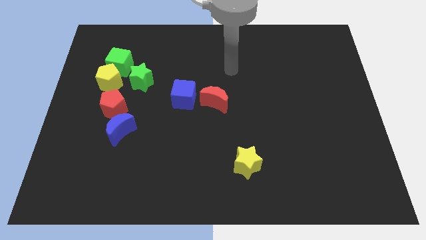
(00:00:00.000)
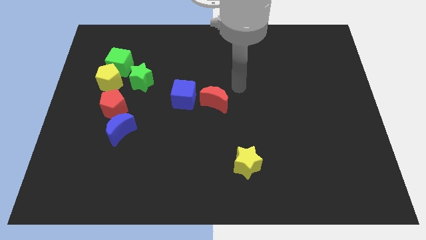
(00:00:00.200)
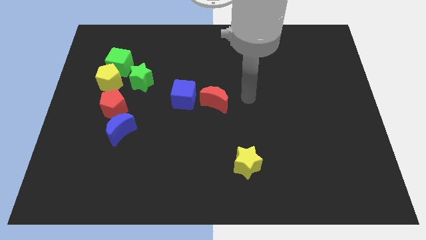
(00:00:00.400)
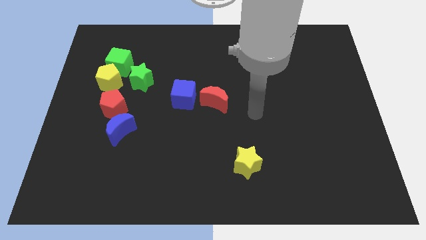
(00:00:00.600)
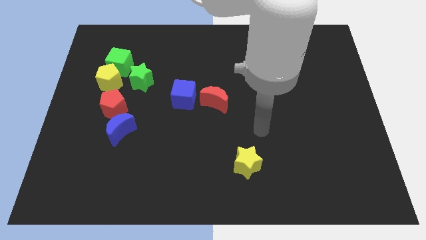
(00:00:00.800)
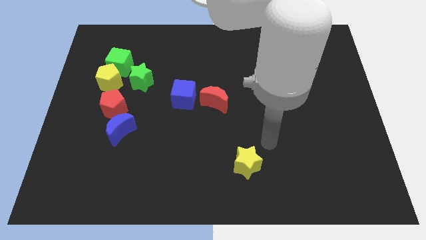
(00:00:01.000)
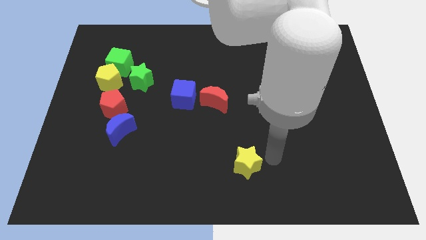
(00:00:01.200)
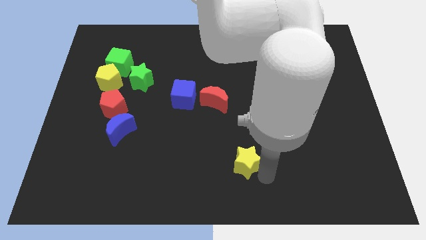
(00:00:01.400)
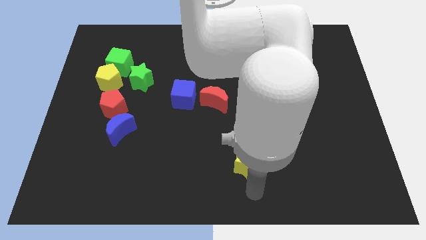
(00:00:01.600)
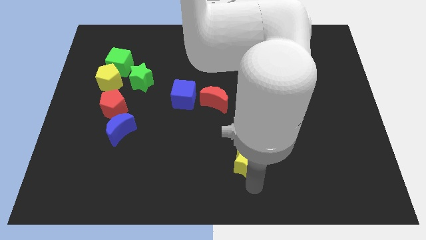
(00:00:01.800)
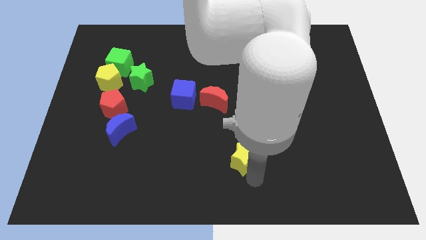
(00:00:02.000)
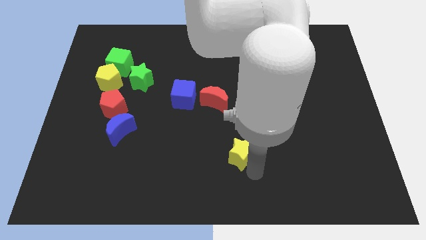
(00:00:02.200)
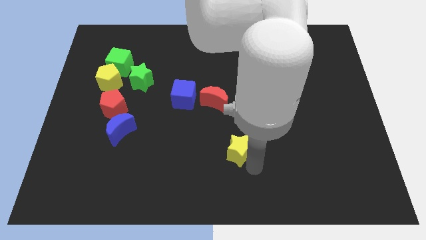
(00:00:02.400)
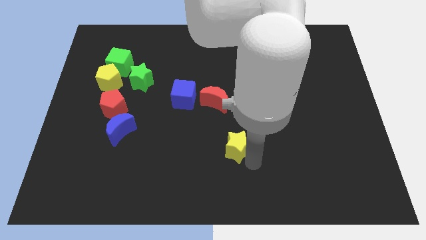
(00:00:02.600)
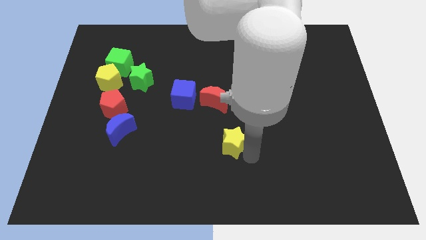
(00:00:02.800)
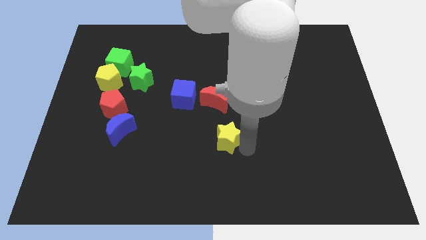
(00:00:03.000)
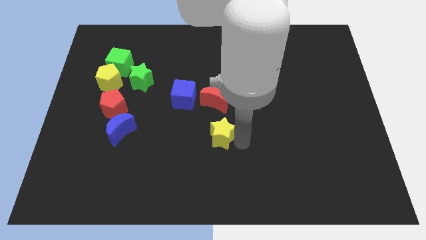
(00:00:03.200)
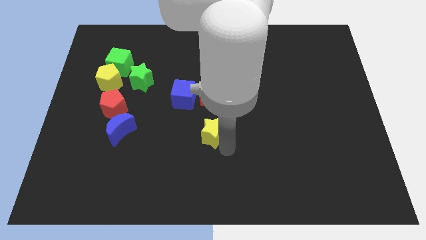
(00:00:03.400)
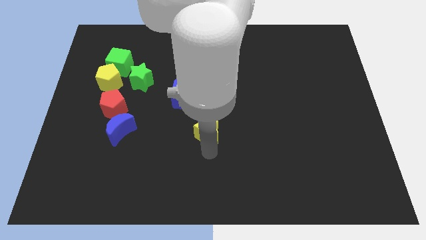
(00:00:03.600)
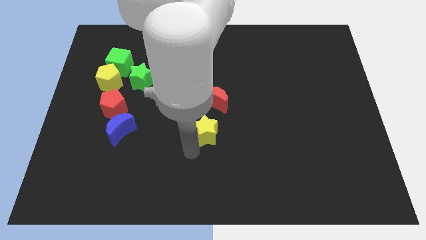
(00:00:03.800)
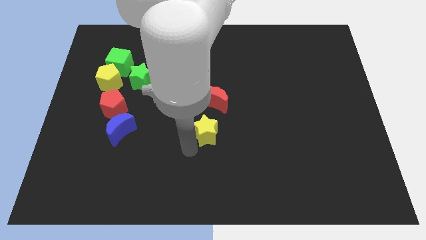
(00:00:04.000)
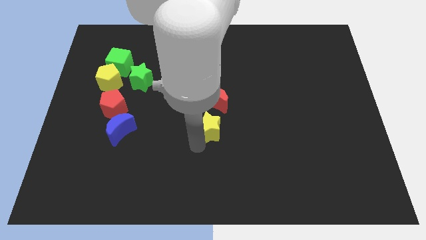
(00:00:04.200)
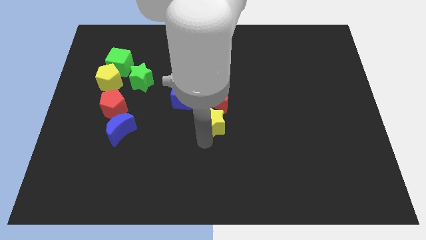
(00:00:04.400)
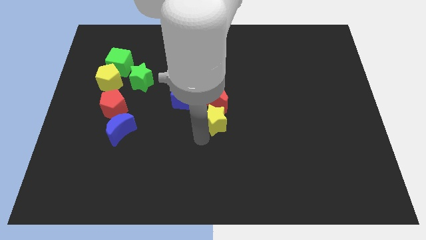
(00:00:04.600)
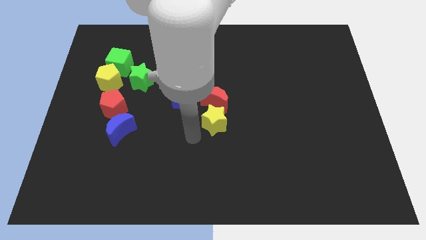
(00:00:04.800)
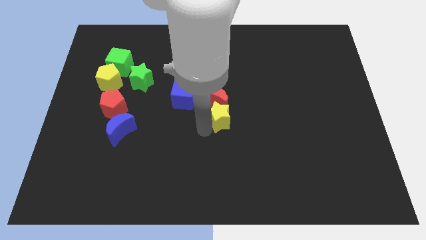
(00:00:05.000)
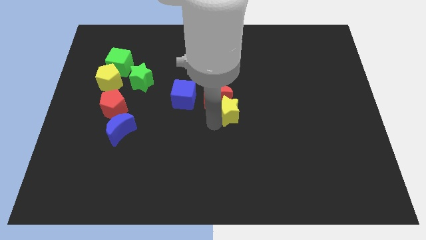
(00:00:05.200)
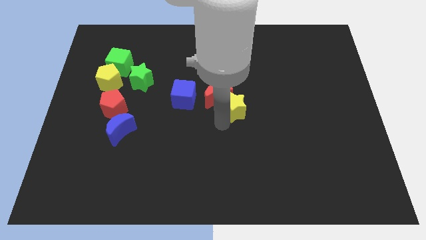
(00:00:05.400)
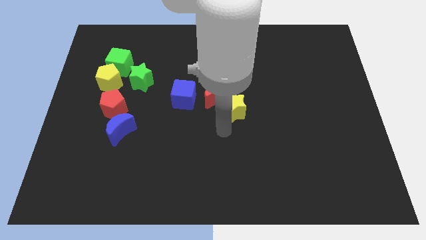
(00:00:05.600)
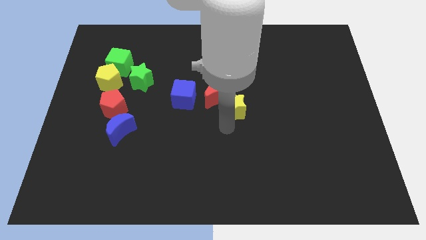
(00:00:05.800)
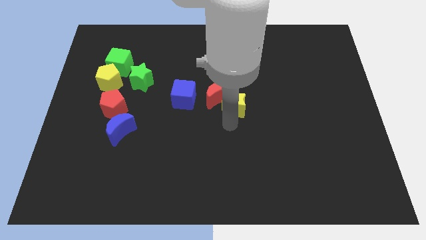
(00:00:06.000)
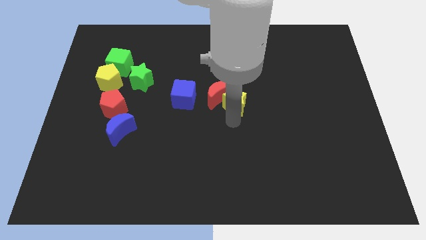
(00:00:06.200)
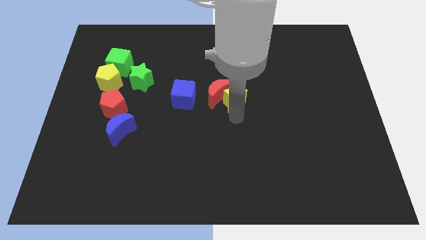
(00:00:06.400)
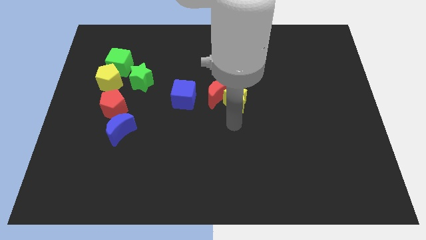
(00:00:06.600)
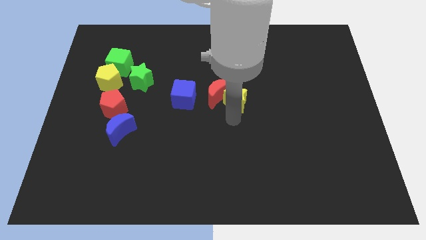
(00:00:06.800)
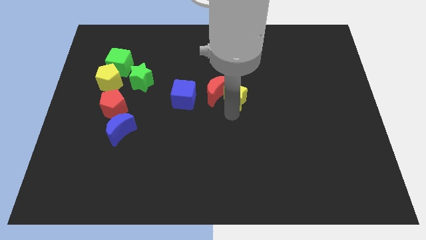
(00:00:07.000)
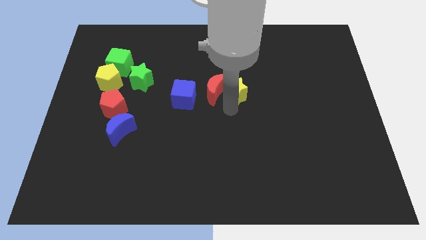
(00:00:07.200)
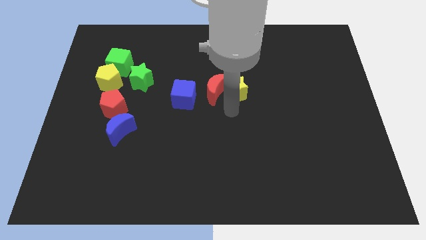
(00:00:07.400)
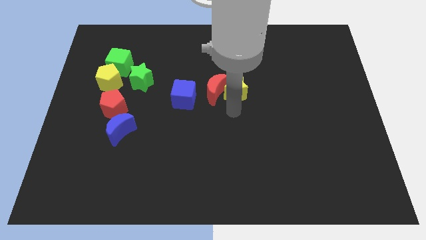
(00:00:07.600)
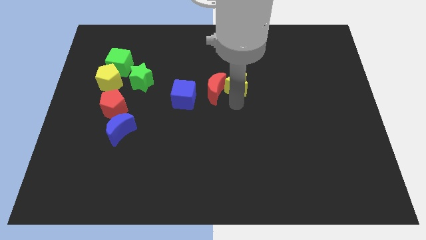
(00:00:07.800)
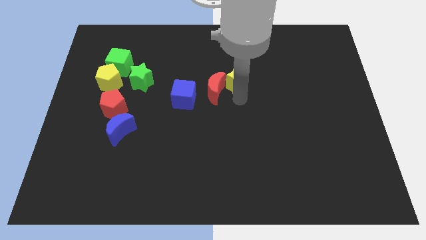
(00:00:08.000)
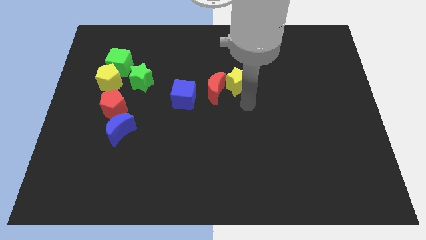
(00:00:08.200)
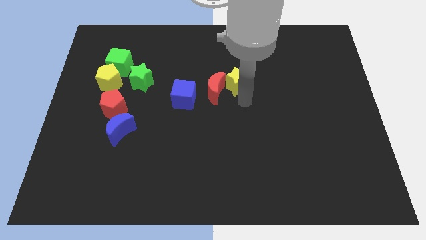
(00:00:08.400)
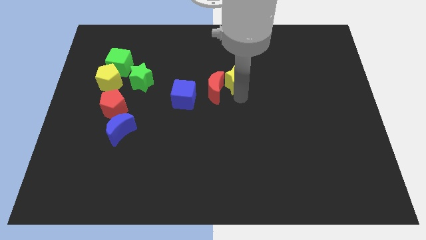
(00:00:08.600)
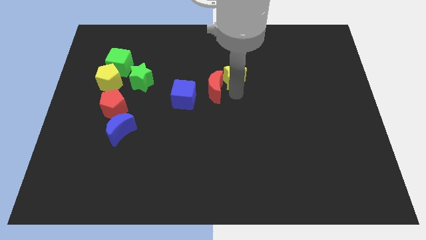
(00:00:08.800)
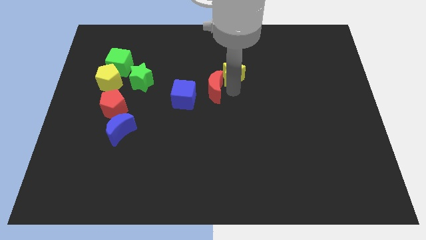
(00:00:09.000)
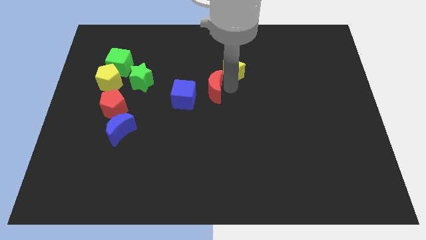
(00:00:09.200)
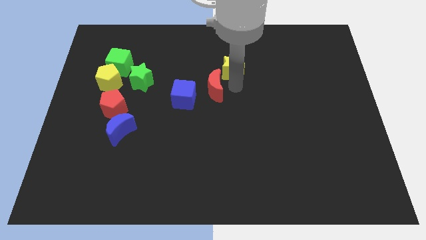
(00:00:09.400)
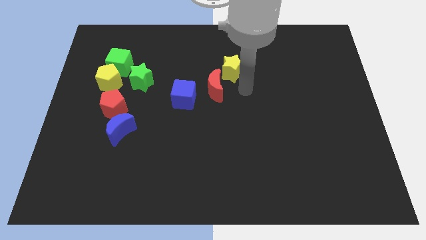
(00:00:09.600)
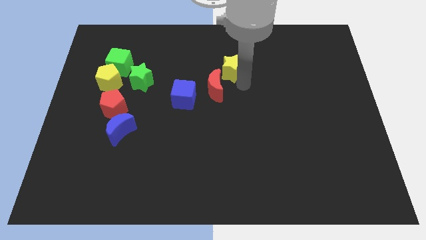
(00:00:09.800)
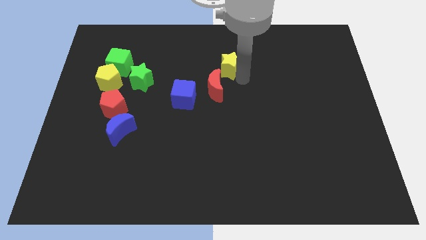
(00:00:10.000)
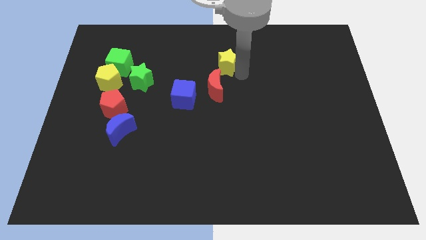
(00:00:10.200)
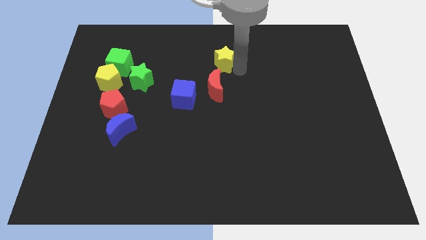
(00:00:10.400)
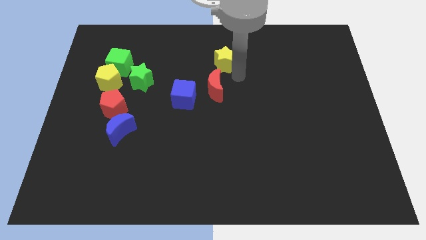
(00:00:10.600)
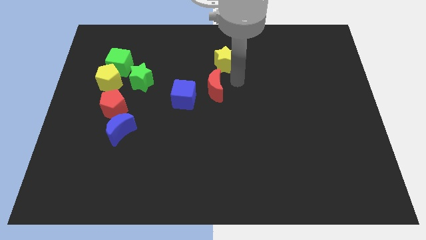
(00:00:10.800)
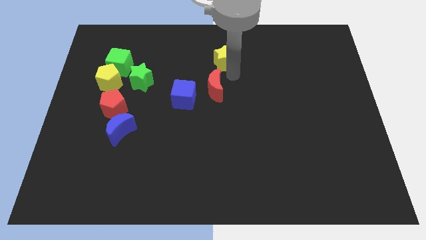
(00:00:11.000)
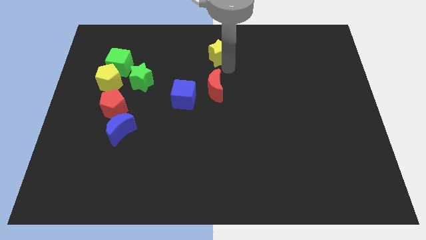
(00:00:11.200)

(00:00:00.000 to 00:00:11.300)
push the yellow star to the towards your base

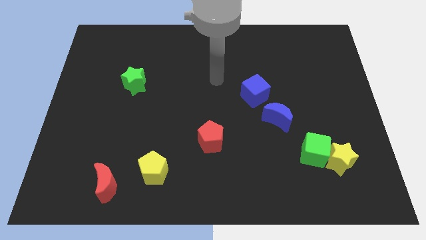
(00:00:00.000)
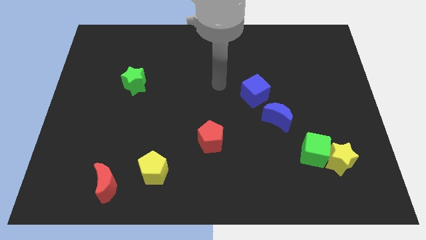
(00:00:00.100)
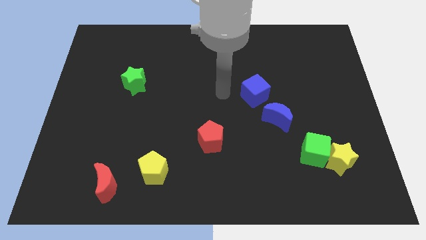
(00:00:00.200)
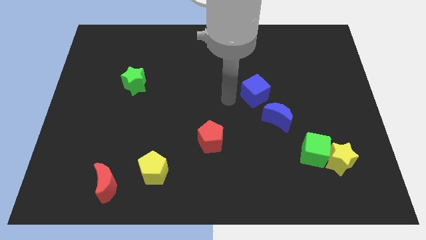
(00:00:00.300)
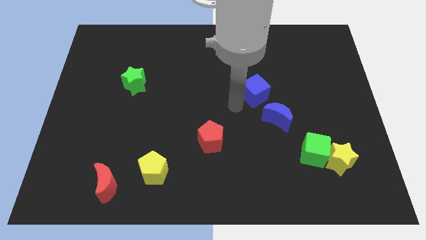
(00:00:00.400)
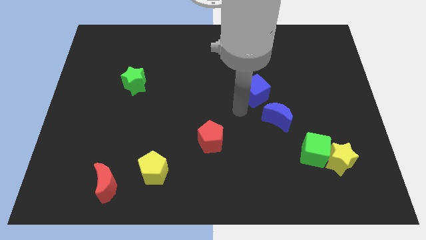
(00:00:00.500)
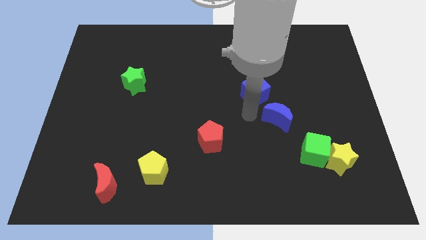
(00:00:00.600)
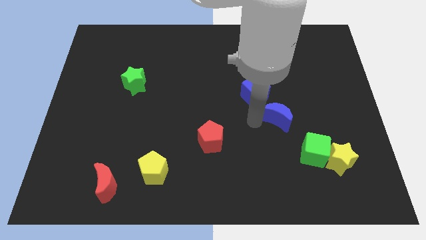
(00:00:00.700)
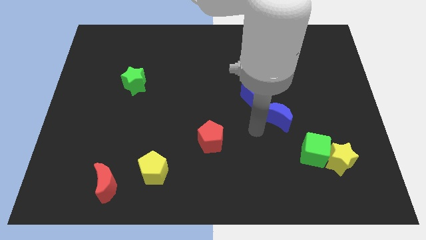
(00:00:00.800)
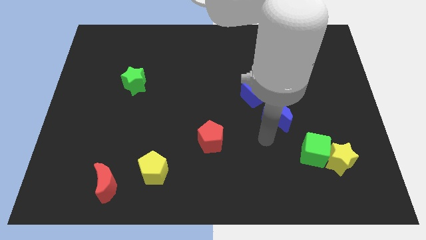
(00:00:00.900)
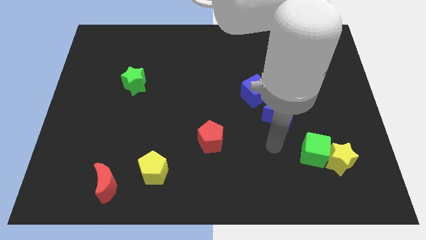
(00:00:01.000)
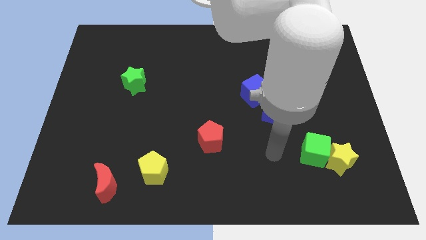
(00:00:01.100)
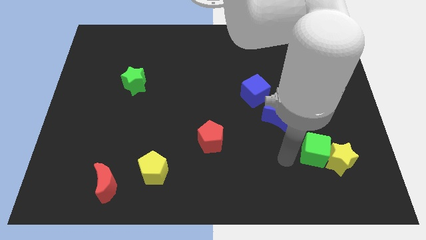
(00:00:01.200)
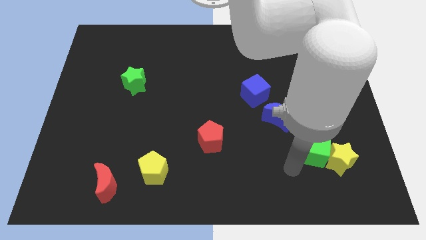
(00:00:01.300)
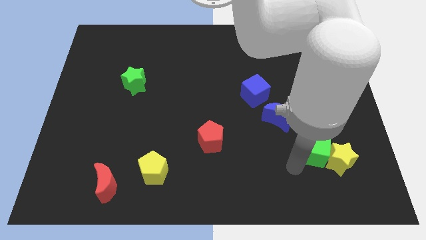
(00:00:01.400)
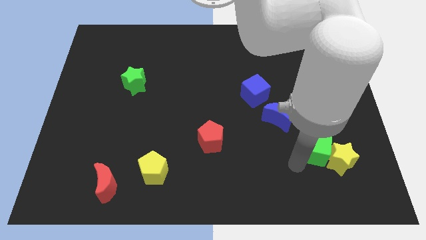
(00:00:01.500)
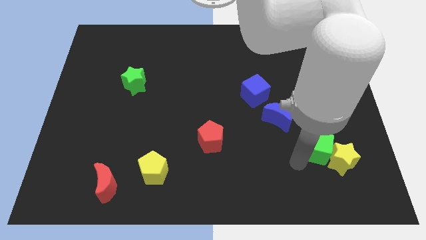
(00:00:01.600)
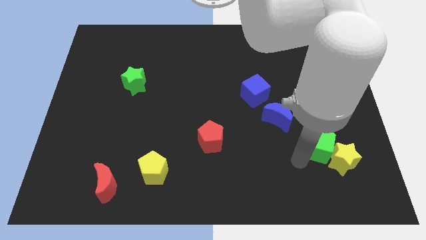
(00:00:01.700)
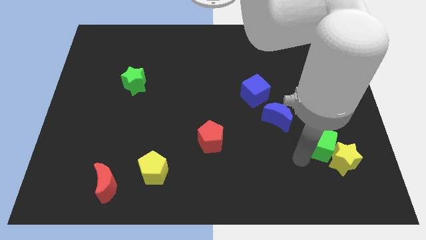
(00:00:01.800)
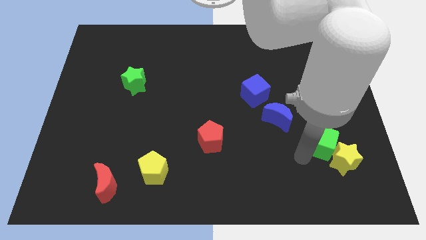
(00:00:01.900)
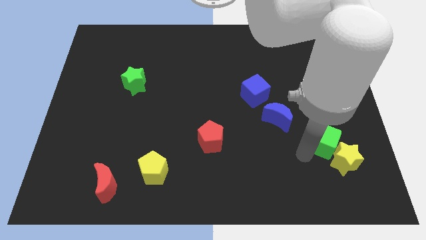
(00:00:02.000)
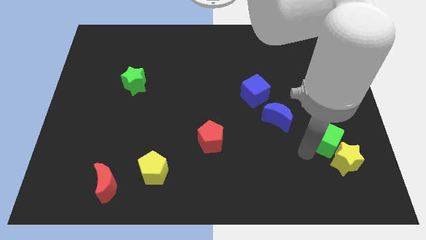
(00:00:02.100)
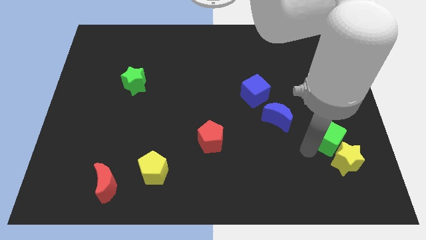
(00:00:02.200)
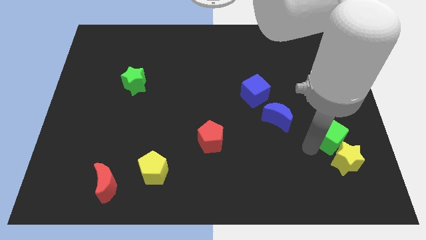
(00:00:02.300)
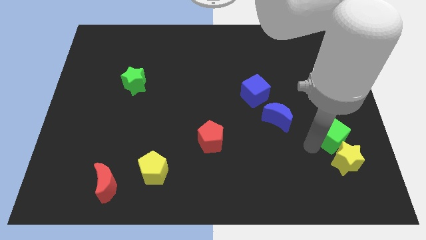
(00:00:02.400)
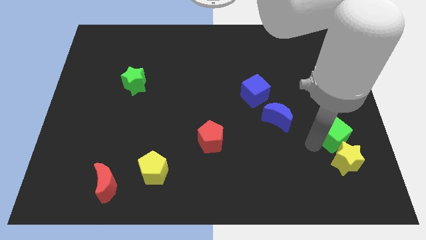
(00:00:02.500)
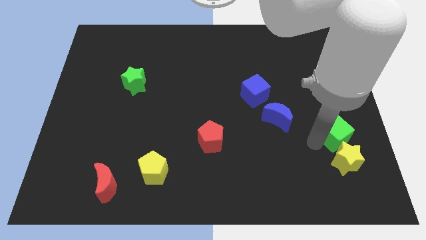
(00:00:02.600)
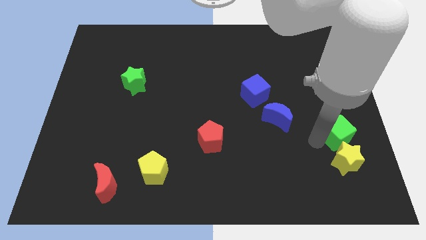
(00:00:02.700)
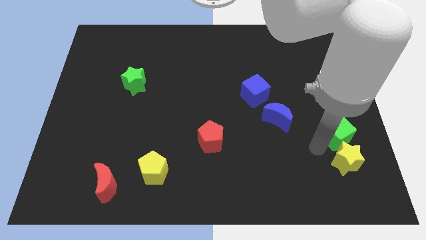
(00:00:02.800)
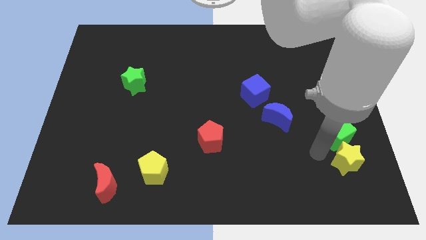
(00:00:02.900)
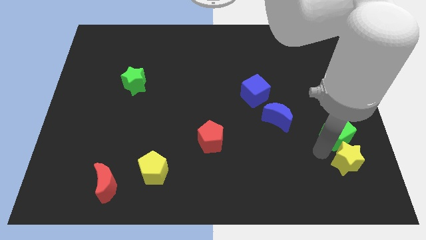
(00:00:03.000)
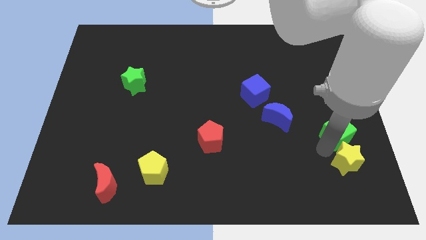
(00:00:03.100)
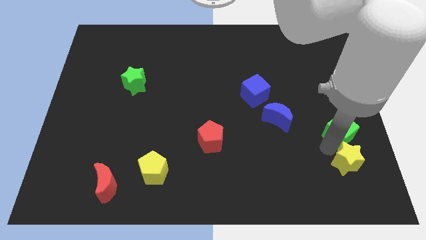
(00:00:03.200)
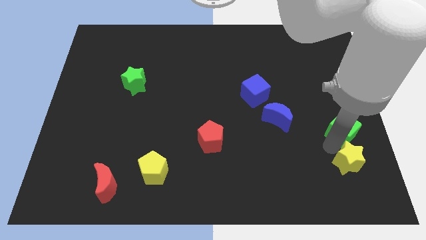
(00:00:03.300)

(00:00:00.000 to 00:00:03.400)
move the green cube to the right side
